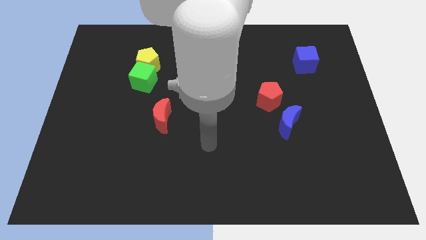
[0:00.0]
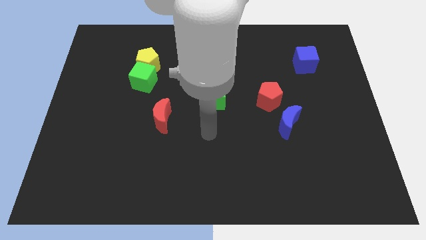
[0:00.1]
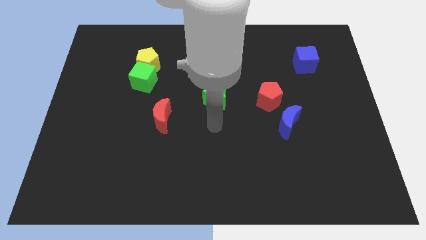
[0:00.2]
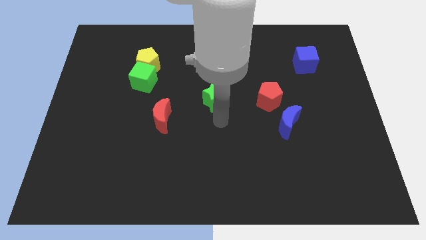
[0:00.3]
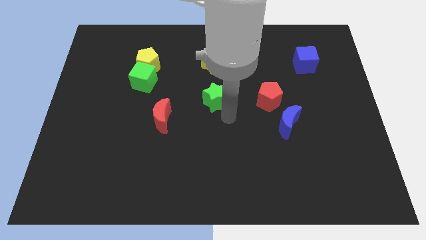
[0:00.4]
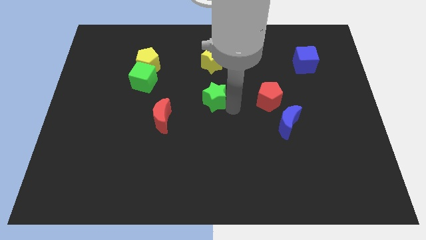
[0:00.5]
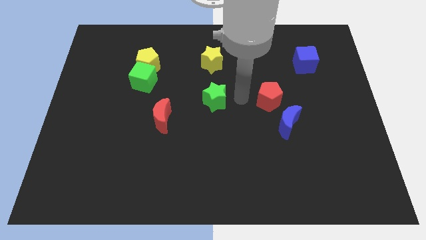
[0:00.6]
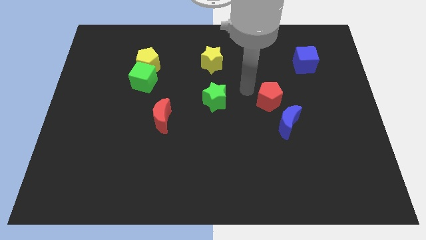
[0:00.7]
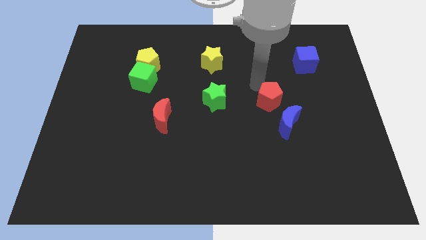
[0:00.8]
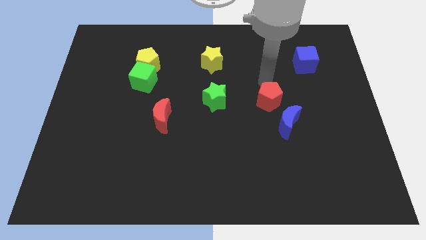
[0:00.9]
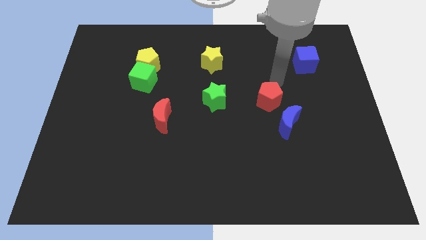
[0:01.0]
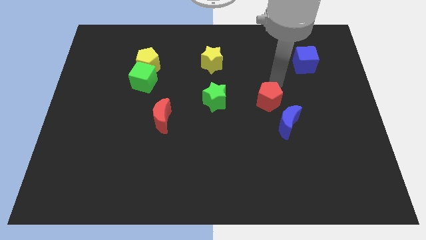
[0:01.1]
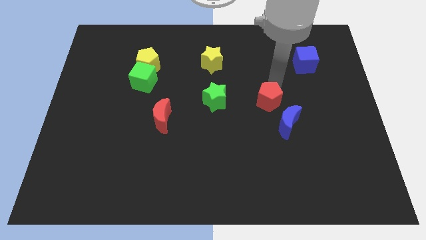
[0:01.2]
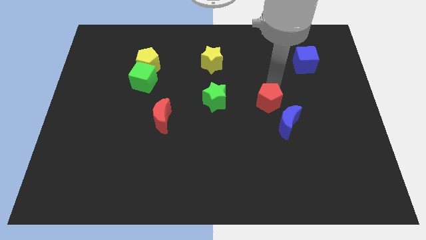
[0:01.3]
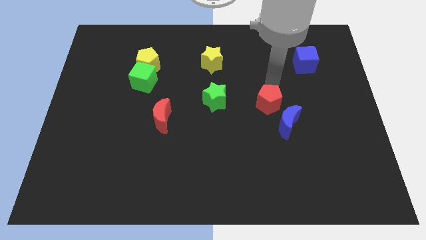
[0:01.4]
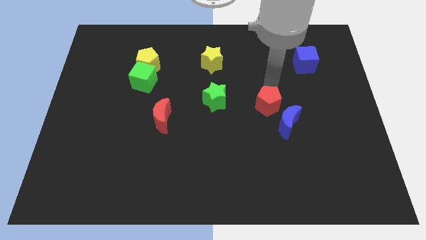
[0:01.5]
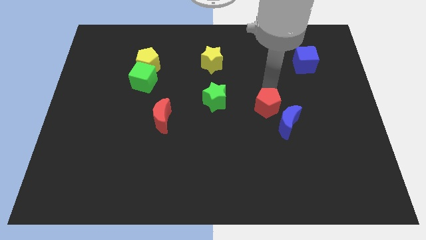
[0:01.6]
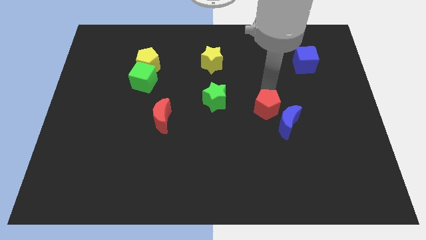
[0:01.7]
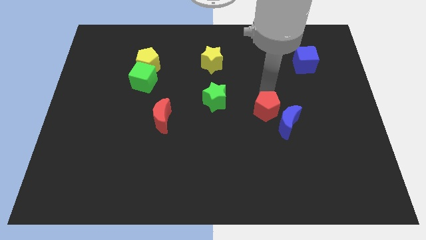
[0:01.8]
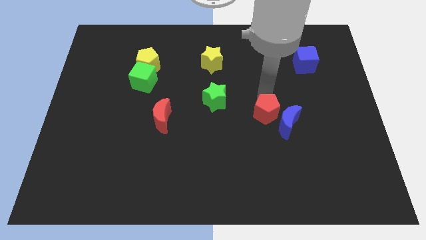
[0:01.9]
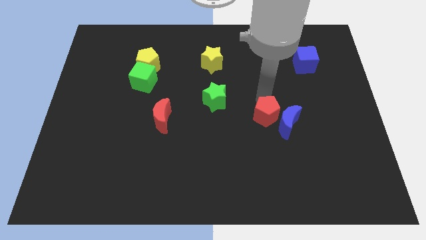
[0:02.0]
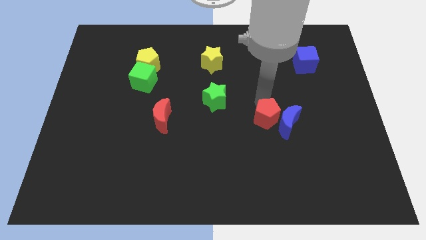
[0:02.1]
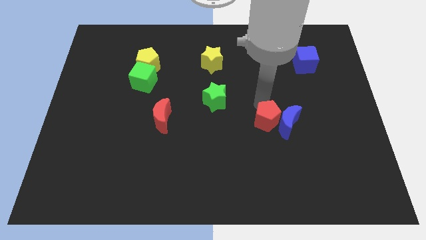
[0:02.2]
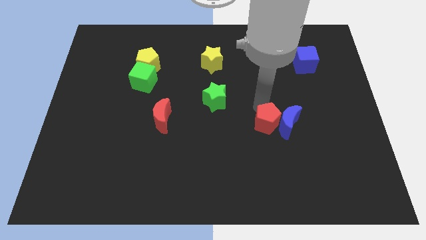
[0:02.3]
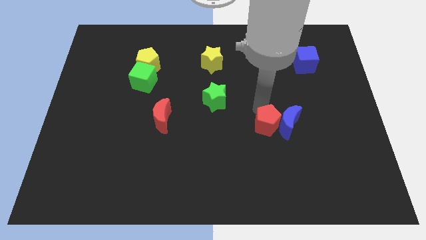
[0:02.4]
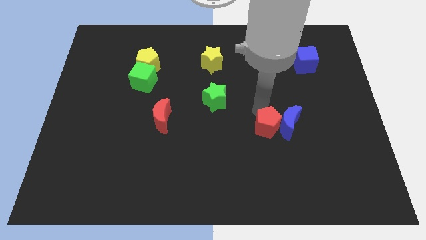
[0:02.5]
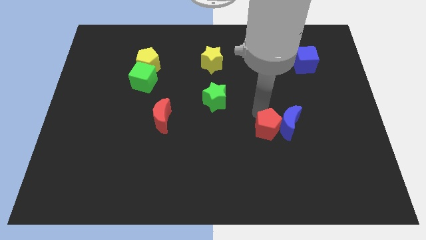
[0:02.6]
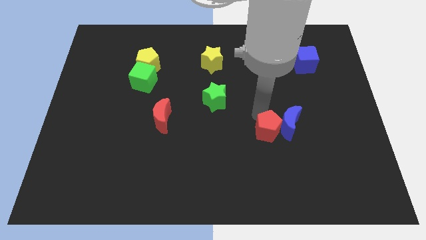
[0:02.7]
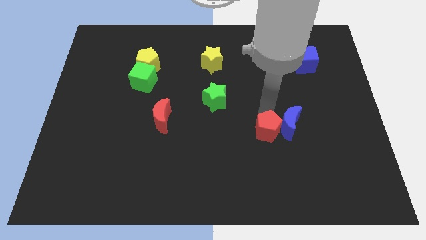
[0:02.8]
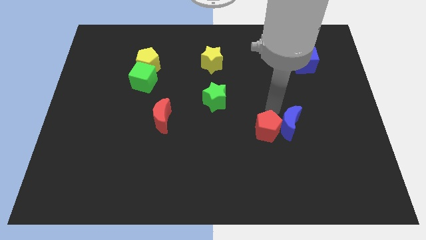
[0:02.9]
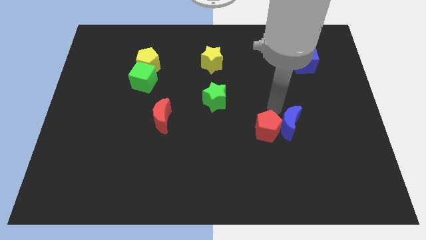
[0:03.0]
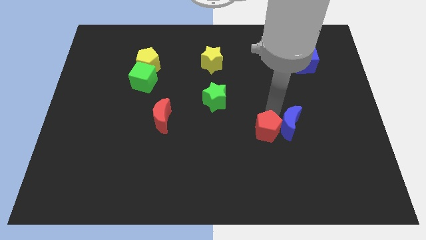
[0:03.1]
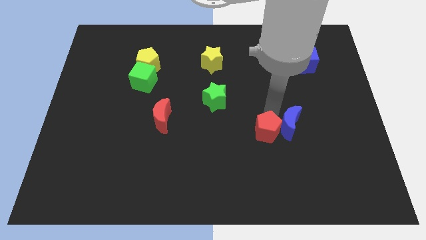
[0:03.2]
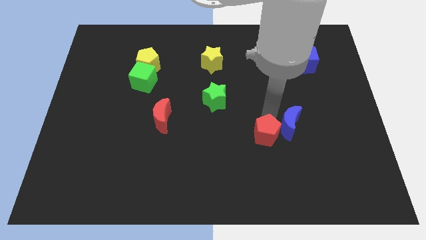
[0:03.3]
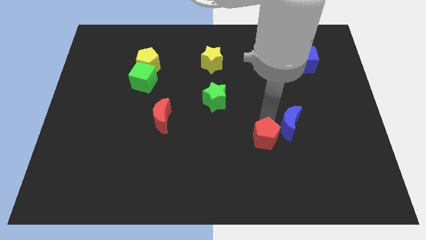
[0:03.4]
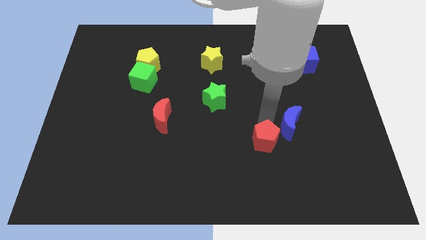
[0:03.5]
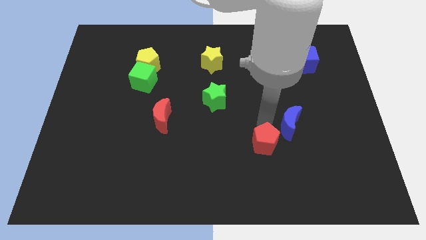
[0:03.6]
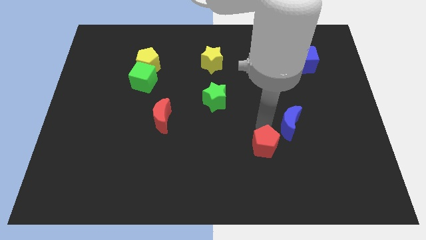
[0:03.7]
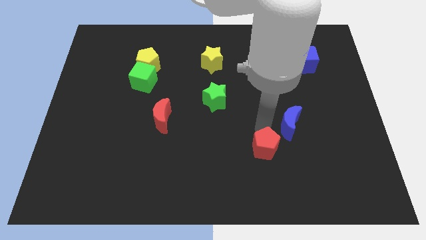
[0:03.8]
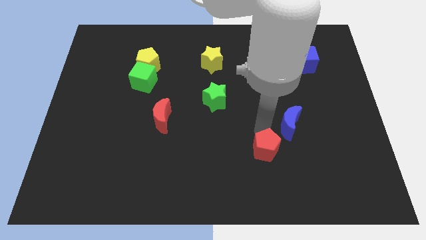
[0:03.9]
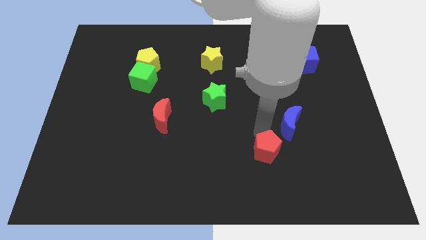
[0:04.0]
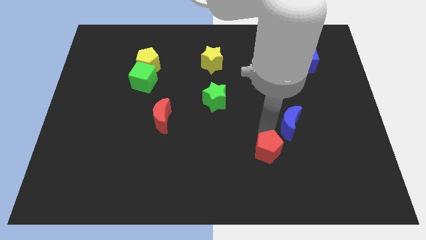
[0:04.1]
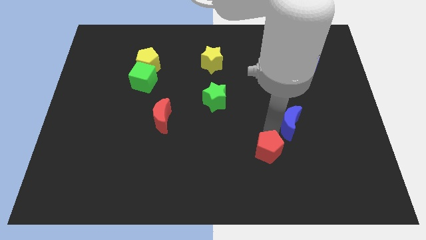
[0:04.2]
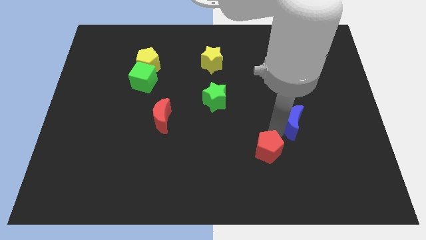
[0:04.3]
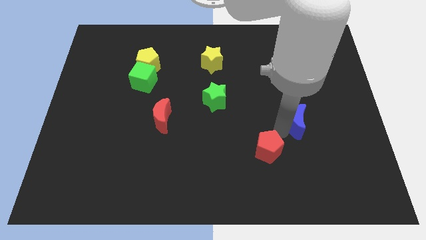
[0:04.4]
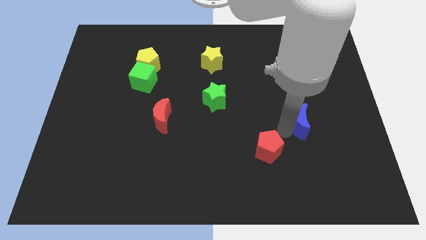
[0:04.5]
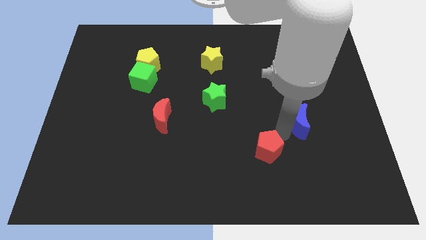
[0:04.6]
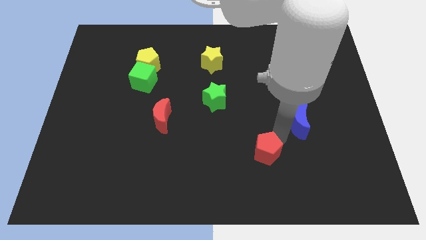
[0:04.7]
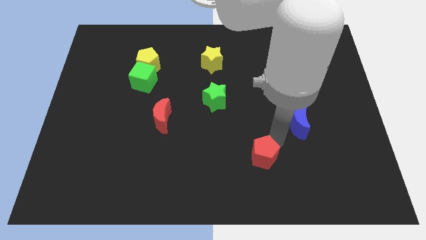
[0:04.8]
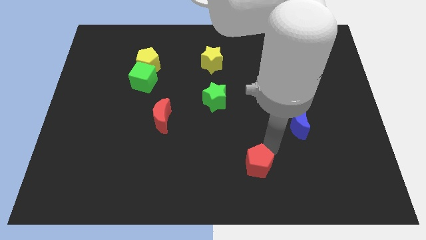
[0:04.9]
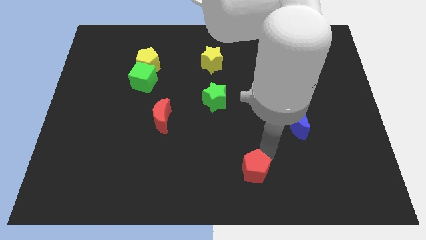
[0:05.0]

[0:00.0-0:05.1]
slide the red pentagon to the bottom

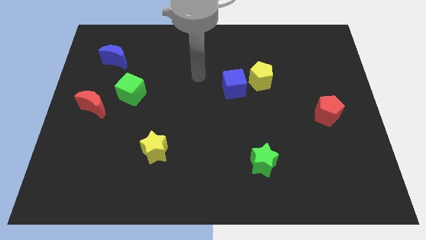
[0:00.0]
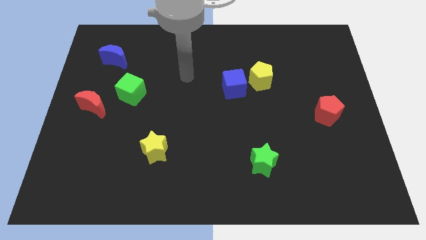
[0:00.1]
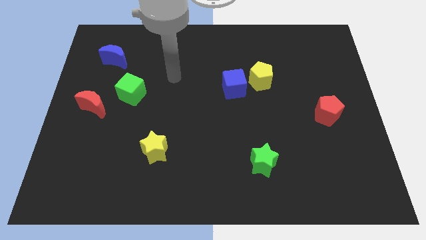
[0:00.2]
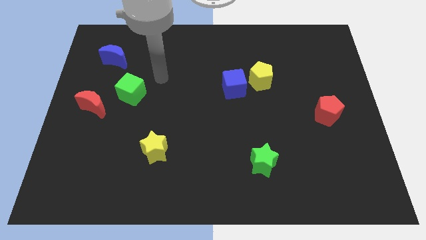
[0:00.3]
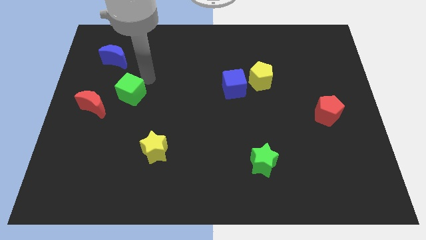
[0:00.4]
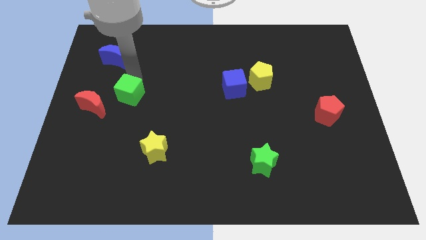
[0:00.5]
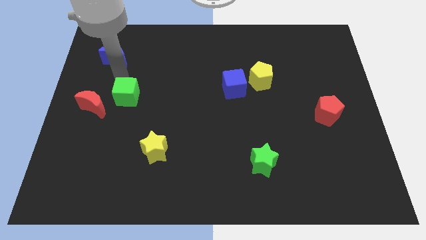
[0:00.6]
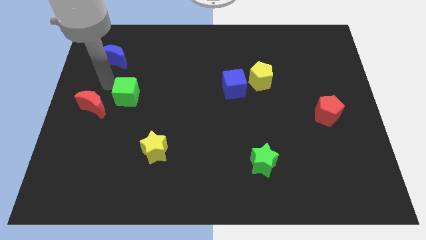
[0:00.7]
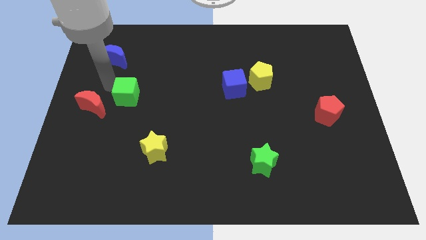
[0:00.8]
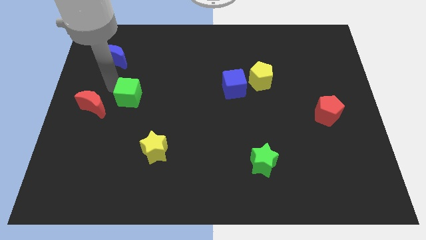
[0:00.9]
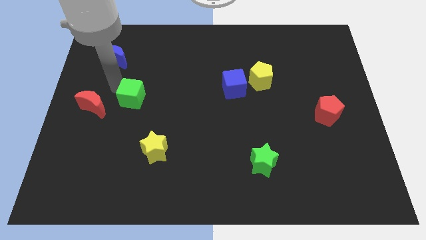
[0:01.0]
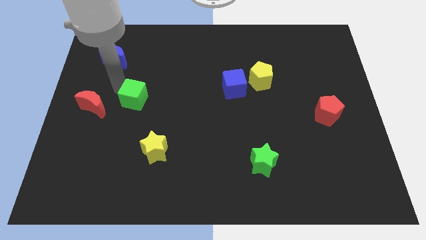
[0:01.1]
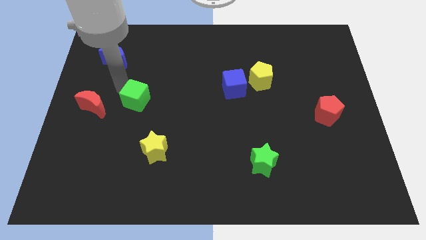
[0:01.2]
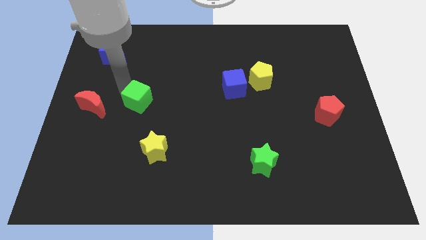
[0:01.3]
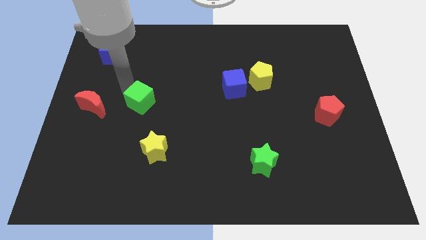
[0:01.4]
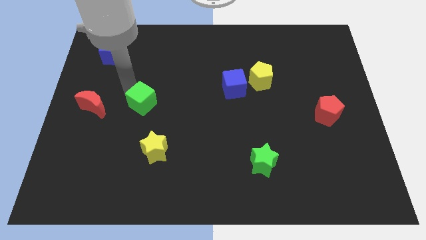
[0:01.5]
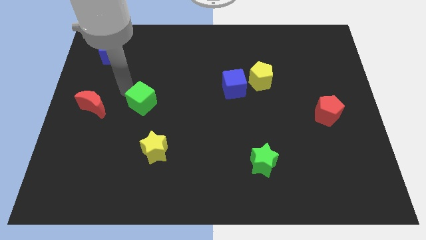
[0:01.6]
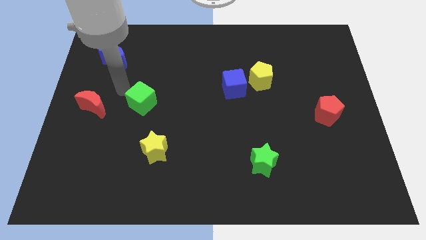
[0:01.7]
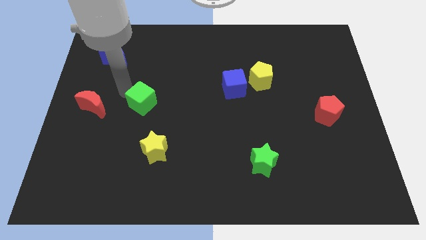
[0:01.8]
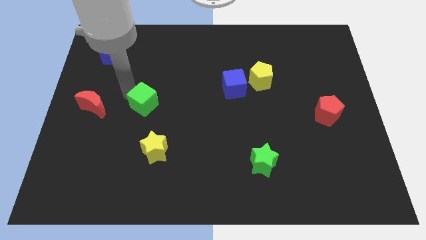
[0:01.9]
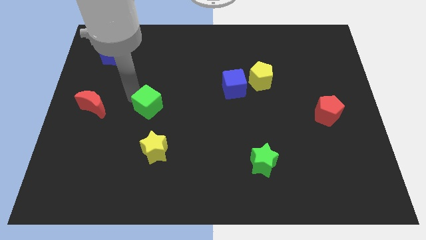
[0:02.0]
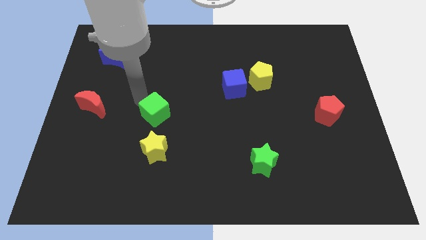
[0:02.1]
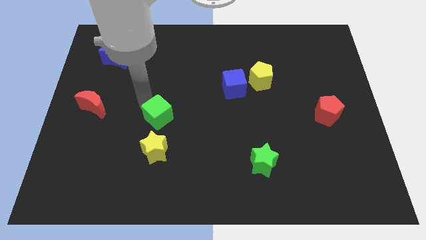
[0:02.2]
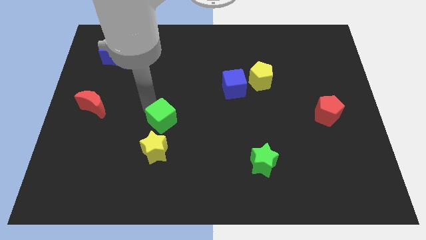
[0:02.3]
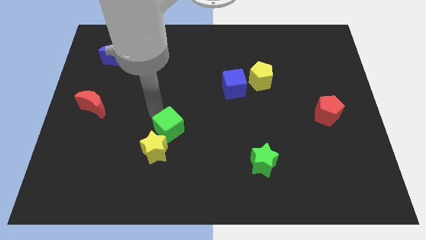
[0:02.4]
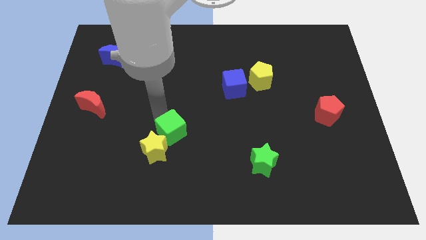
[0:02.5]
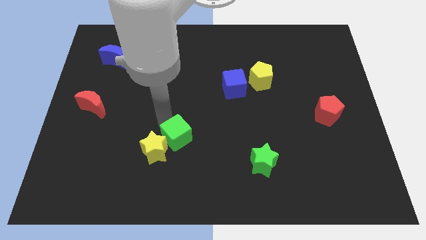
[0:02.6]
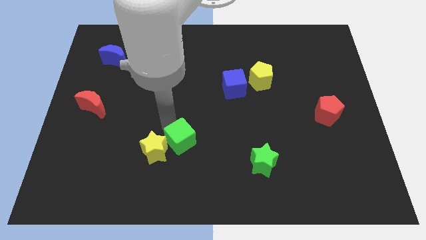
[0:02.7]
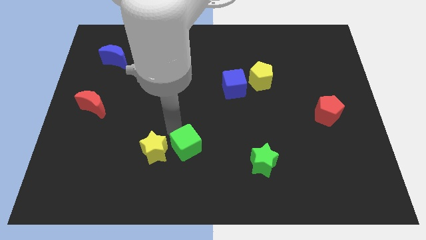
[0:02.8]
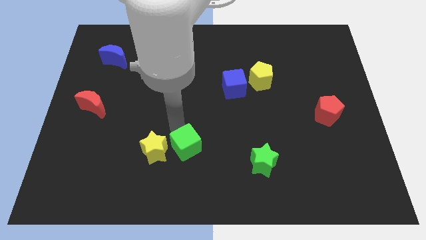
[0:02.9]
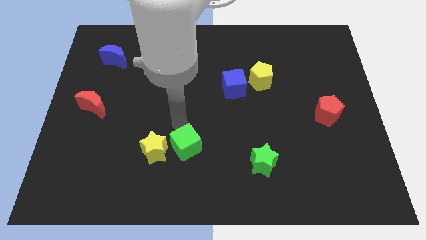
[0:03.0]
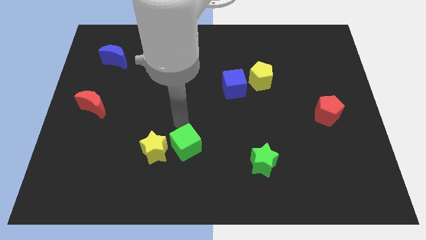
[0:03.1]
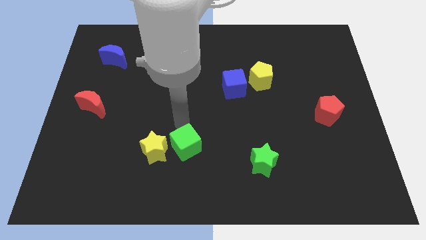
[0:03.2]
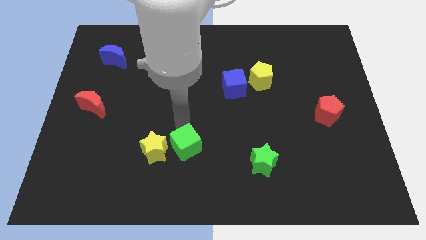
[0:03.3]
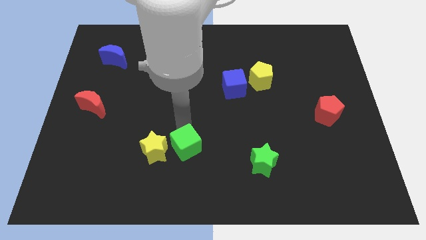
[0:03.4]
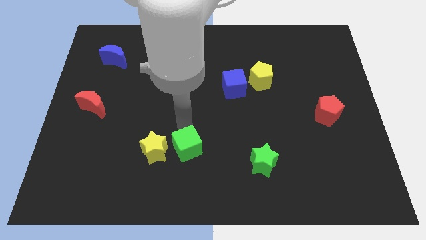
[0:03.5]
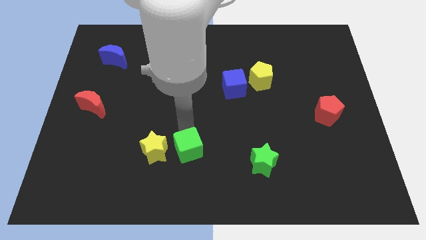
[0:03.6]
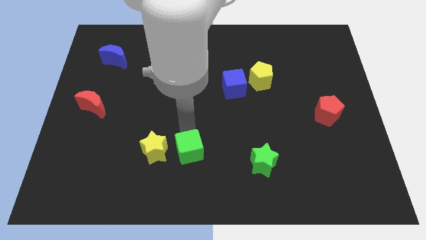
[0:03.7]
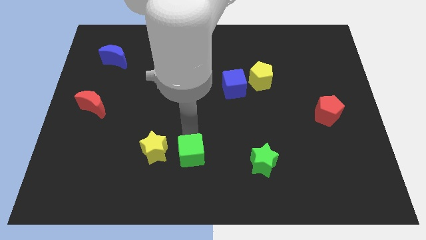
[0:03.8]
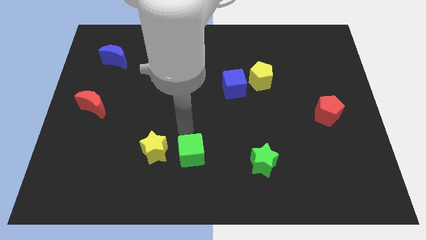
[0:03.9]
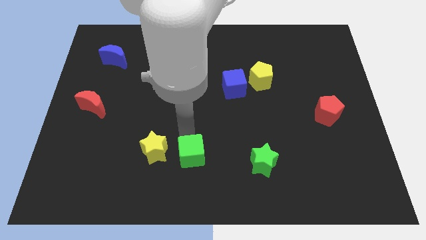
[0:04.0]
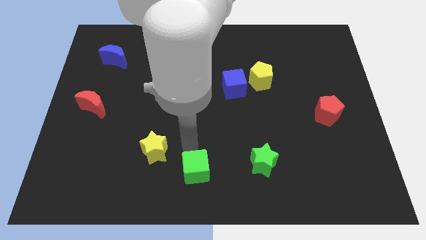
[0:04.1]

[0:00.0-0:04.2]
push the green cube to the bottom
